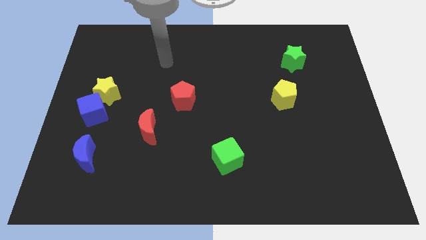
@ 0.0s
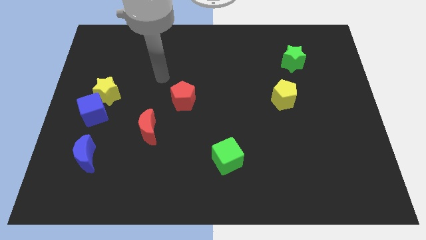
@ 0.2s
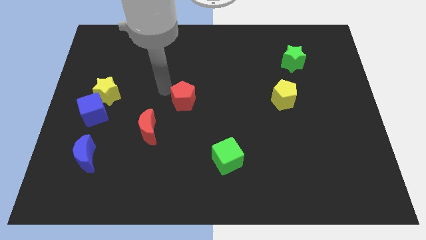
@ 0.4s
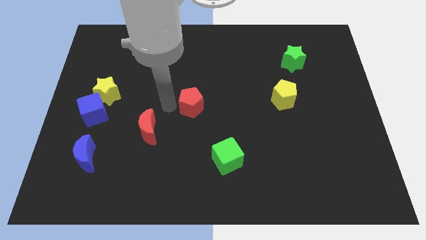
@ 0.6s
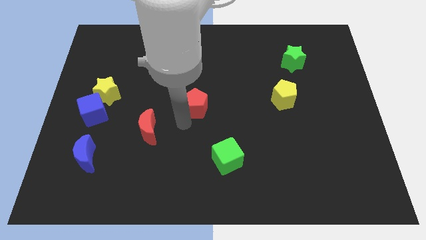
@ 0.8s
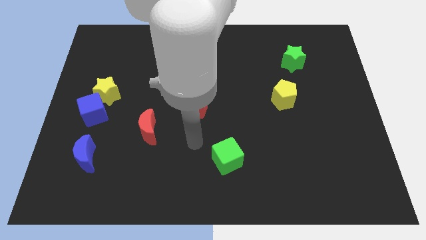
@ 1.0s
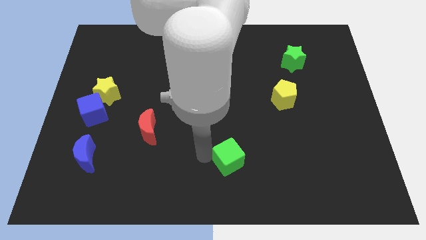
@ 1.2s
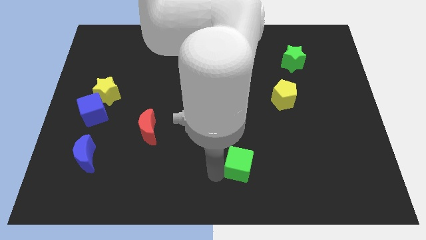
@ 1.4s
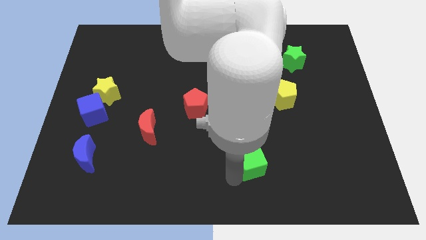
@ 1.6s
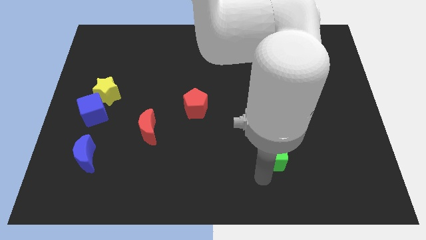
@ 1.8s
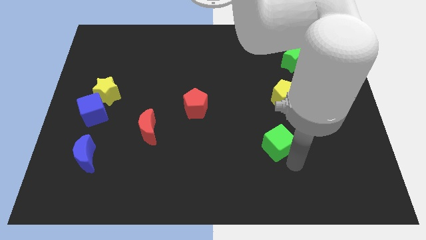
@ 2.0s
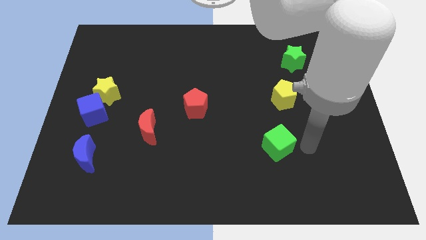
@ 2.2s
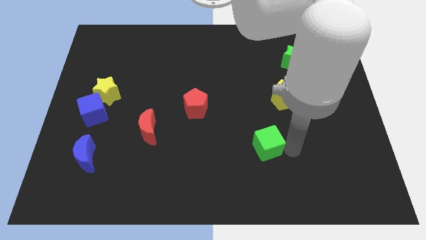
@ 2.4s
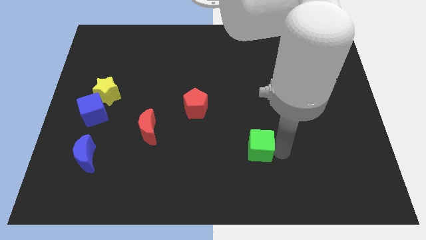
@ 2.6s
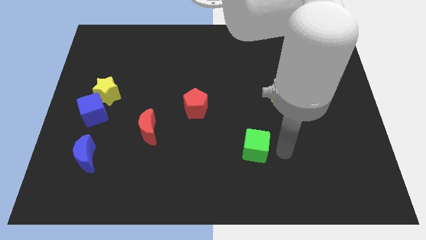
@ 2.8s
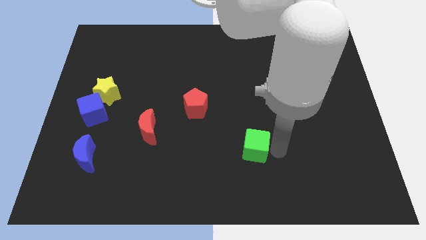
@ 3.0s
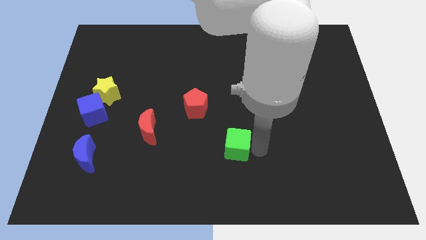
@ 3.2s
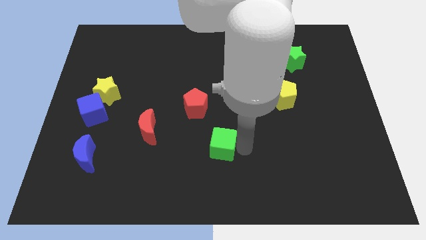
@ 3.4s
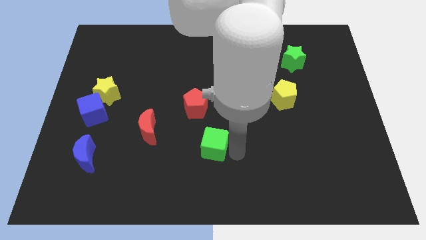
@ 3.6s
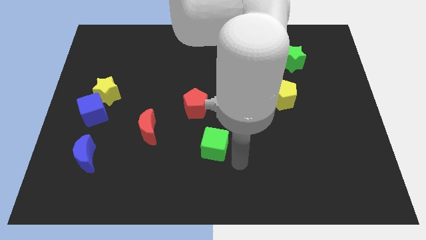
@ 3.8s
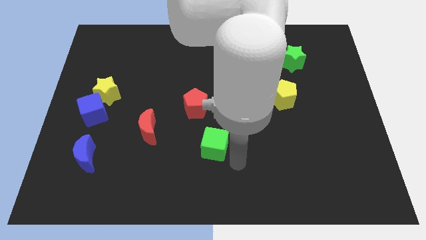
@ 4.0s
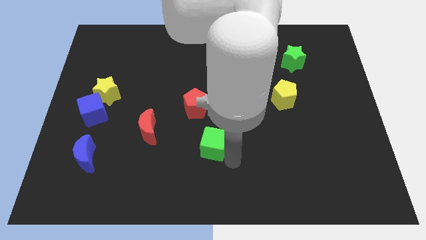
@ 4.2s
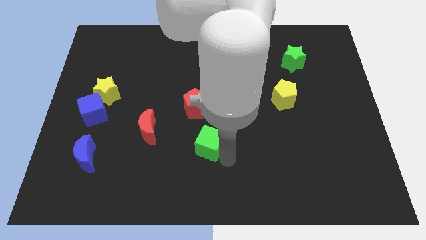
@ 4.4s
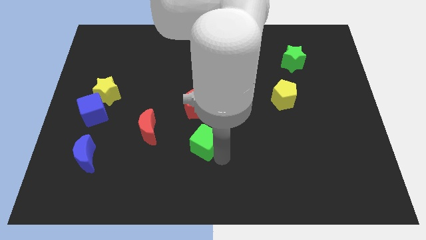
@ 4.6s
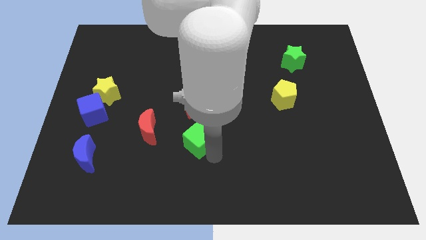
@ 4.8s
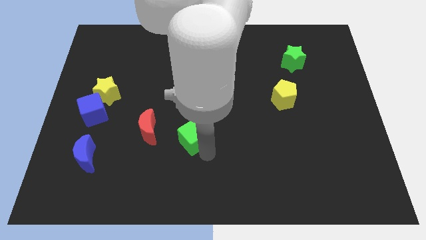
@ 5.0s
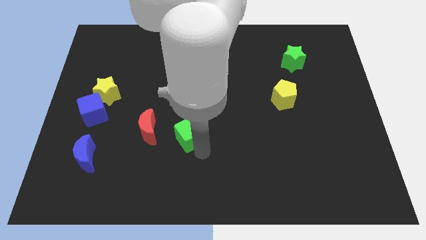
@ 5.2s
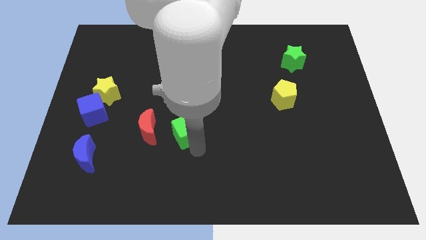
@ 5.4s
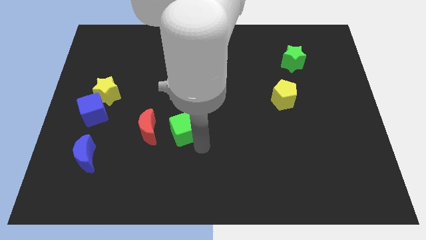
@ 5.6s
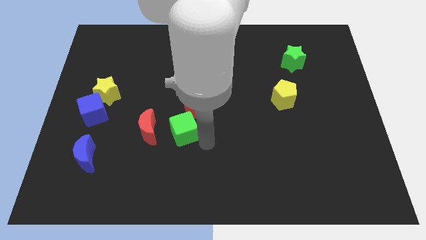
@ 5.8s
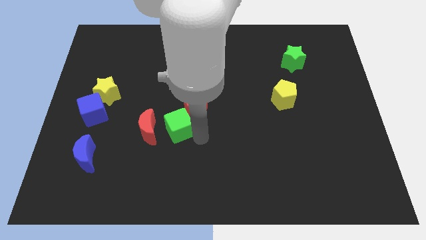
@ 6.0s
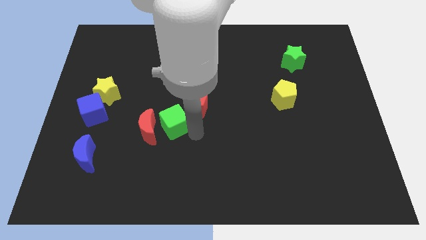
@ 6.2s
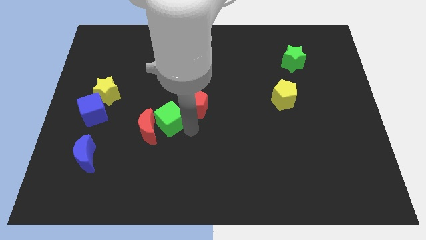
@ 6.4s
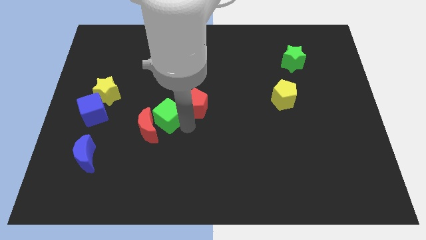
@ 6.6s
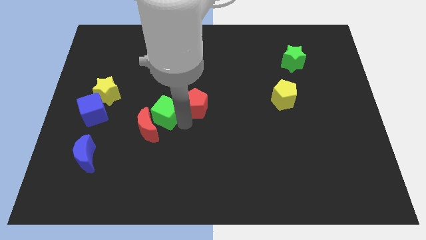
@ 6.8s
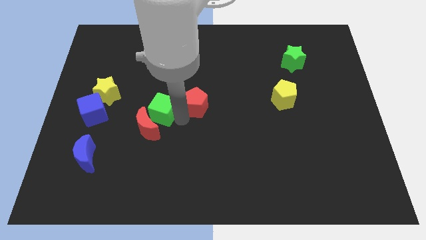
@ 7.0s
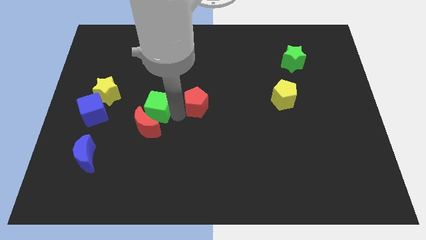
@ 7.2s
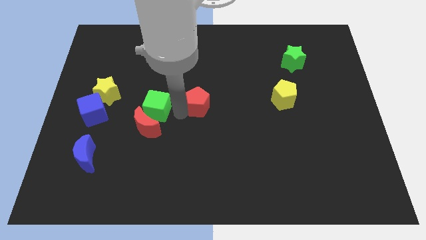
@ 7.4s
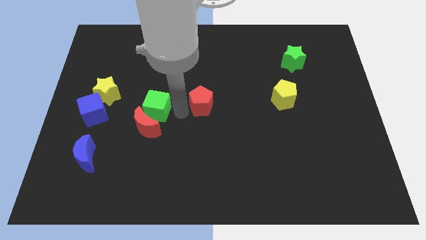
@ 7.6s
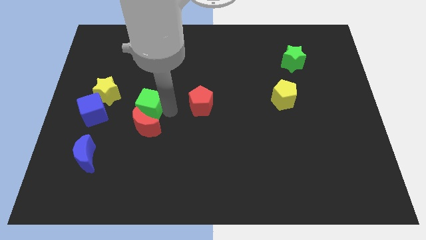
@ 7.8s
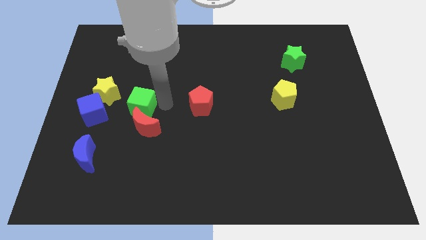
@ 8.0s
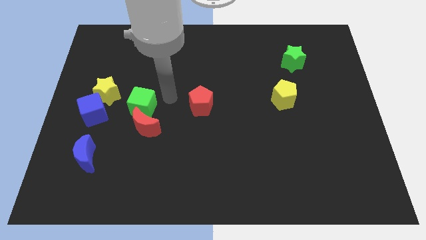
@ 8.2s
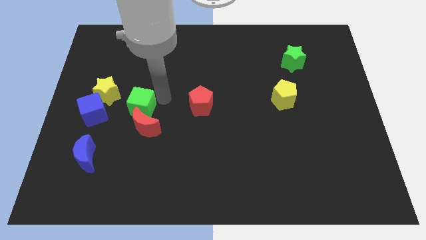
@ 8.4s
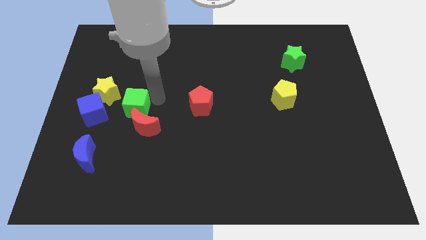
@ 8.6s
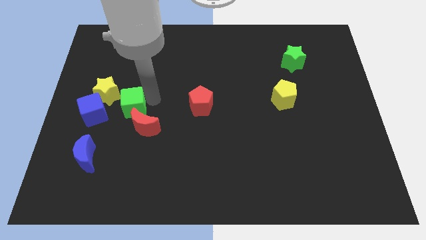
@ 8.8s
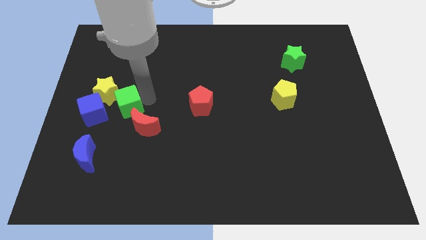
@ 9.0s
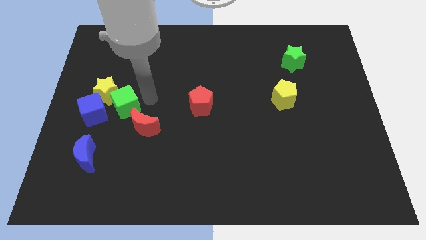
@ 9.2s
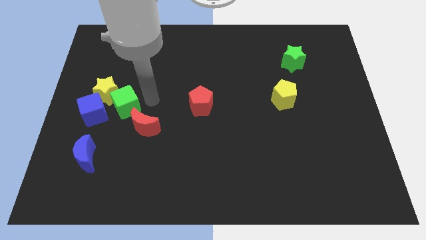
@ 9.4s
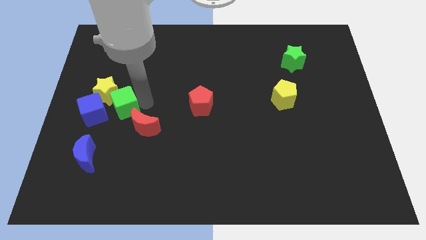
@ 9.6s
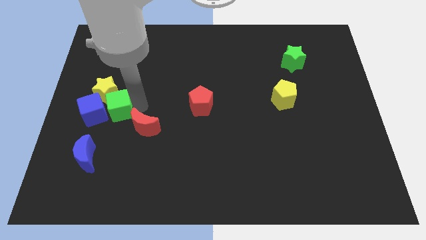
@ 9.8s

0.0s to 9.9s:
put the green cube close to the blue cube

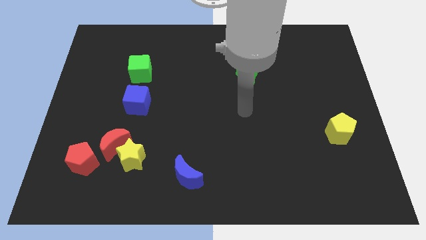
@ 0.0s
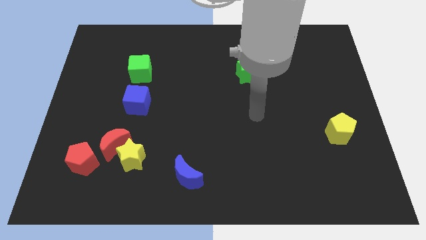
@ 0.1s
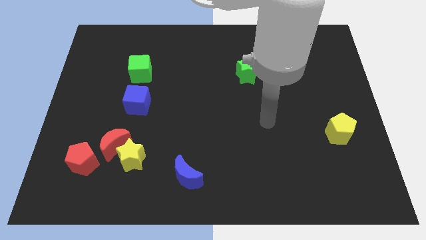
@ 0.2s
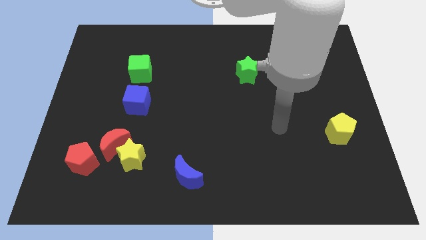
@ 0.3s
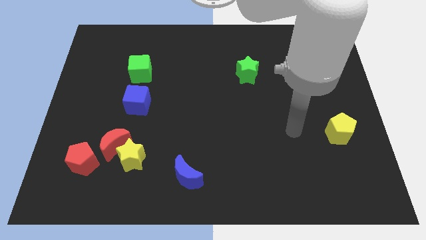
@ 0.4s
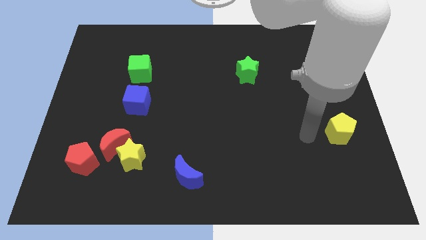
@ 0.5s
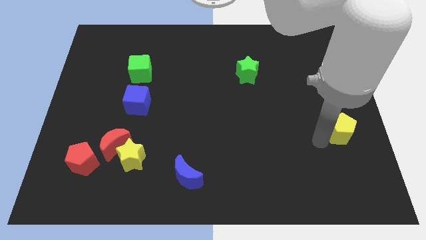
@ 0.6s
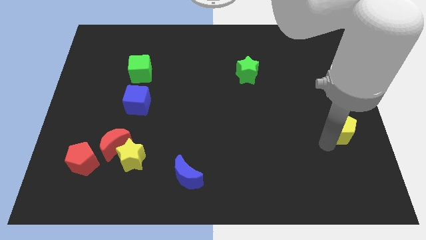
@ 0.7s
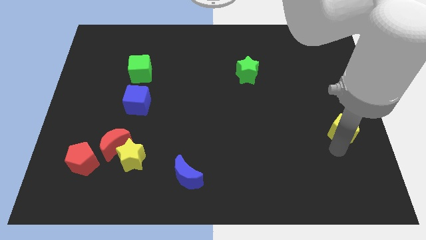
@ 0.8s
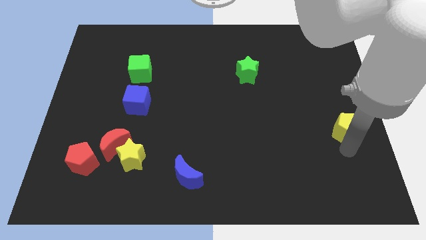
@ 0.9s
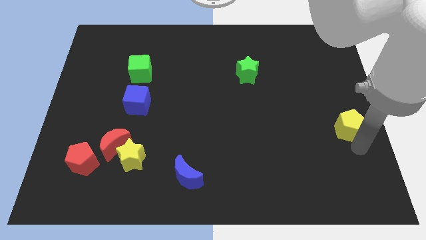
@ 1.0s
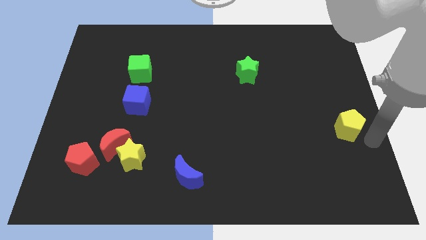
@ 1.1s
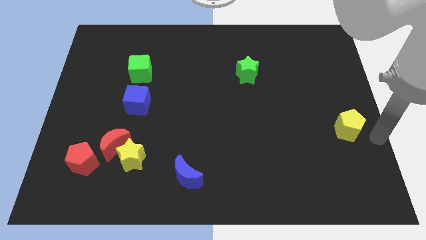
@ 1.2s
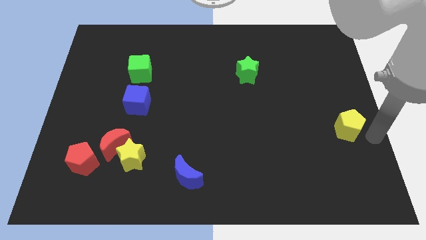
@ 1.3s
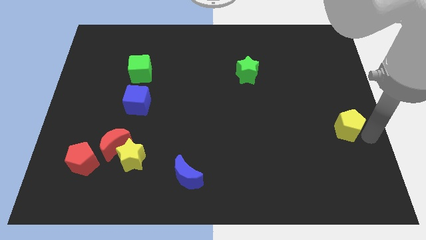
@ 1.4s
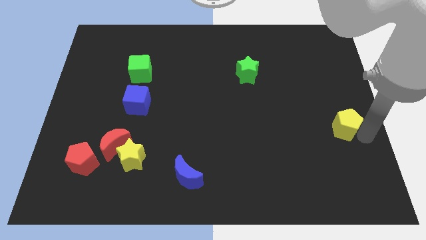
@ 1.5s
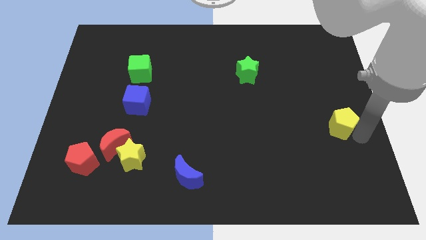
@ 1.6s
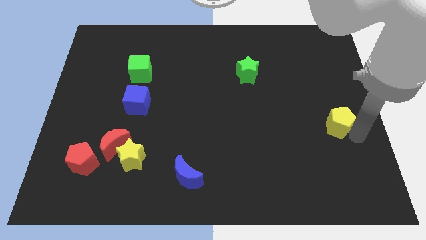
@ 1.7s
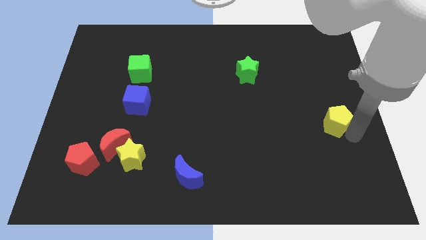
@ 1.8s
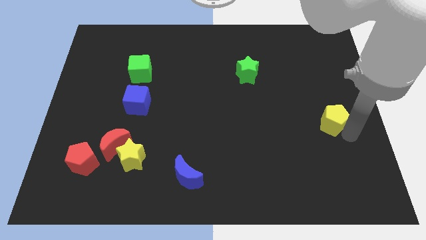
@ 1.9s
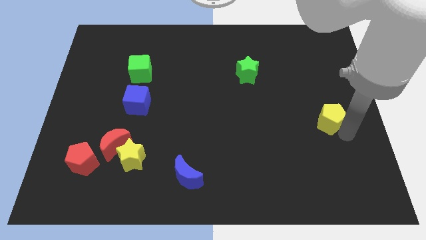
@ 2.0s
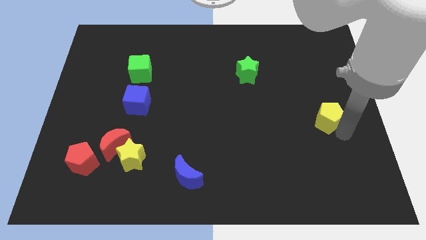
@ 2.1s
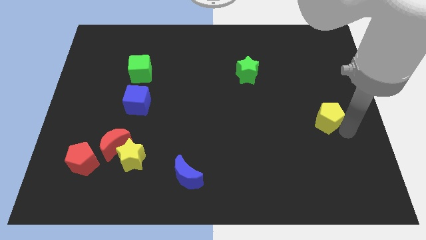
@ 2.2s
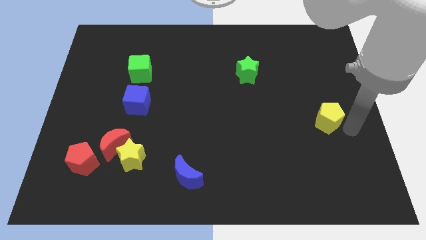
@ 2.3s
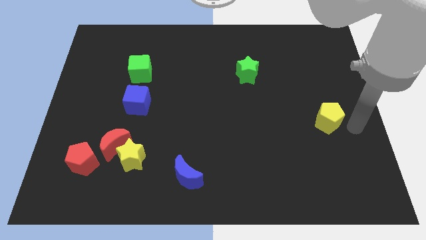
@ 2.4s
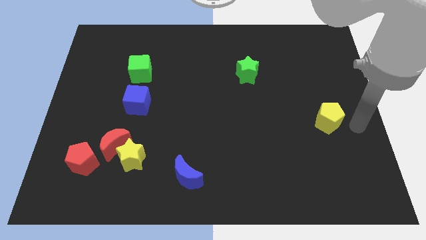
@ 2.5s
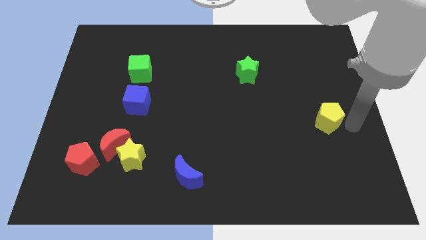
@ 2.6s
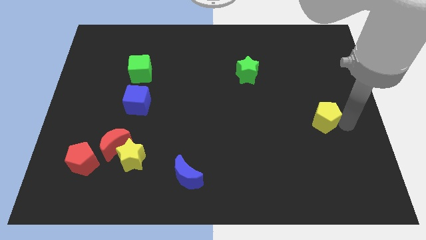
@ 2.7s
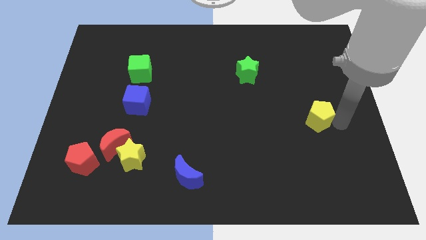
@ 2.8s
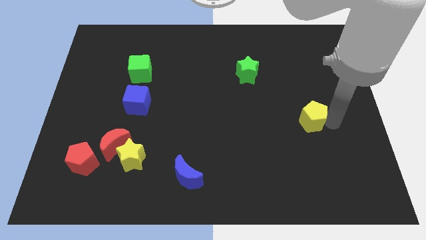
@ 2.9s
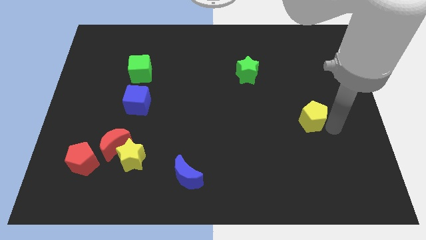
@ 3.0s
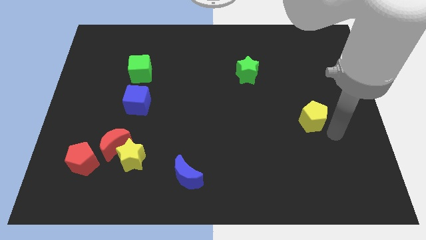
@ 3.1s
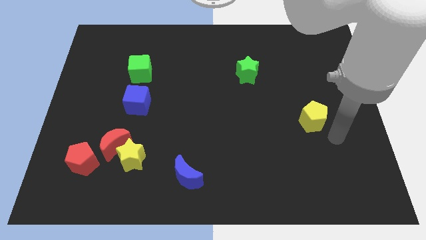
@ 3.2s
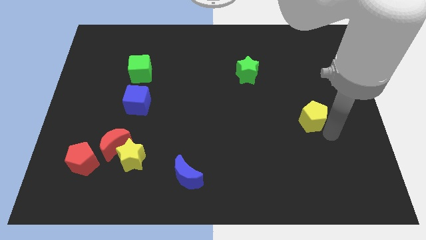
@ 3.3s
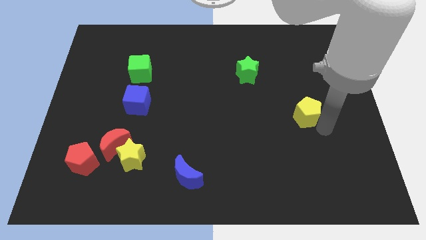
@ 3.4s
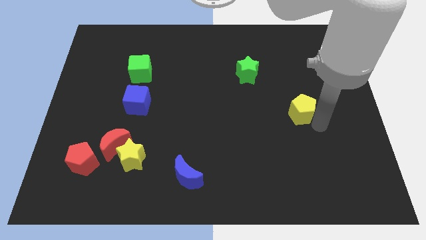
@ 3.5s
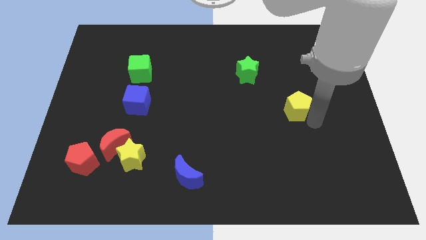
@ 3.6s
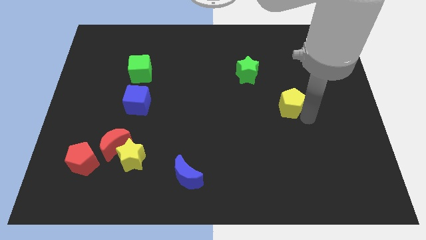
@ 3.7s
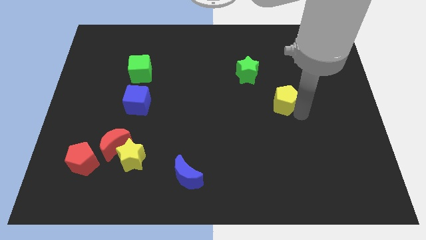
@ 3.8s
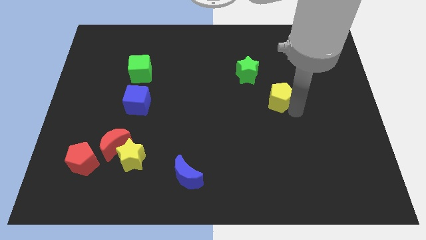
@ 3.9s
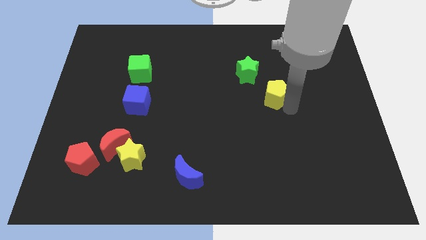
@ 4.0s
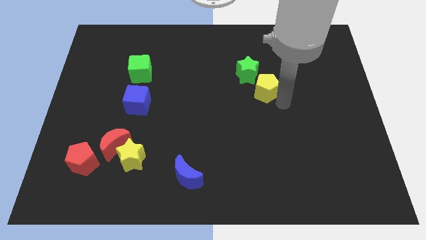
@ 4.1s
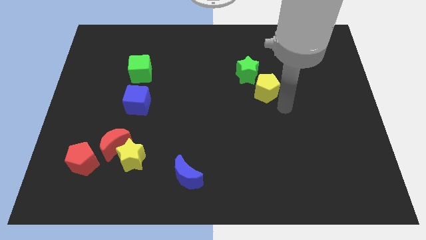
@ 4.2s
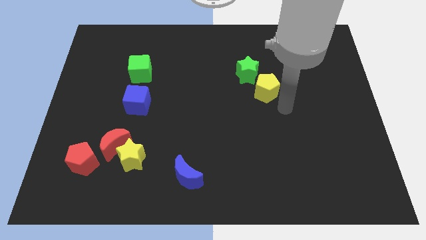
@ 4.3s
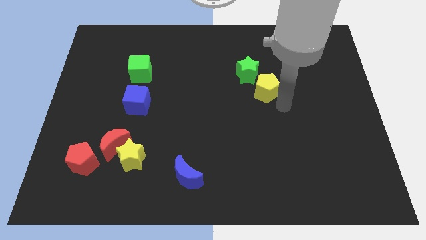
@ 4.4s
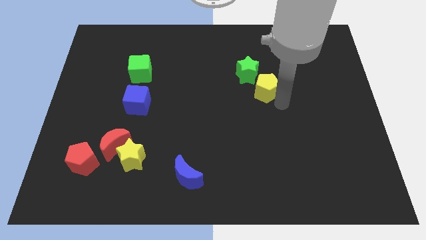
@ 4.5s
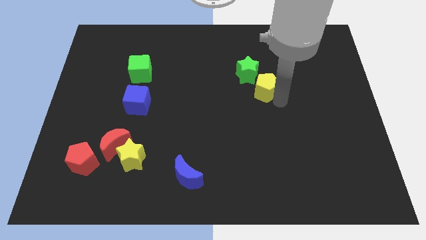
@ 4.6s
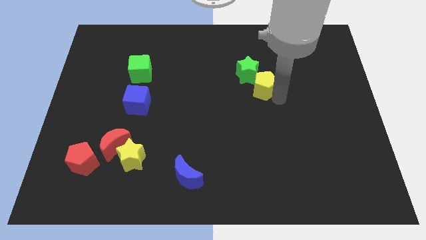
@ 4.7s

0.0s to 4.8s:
push the yellow pentagon close to the green star
